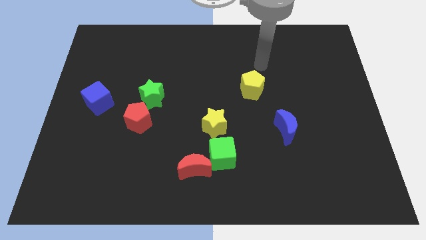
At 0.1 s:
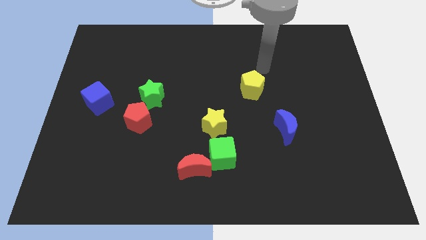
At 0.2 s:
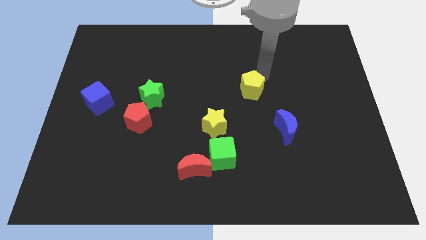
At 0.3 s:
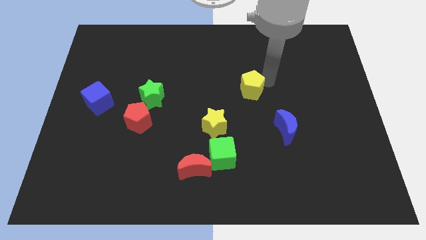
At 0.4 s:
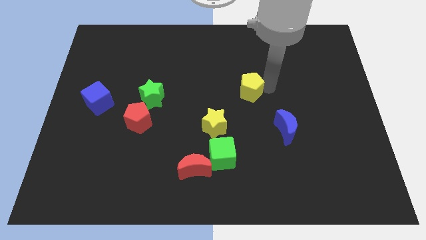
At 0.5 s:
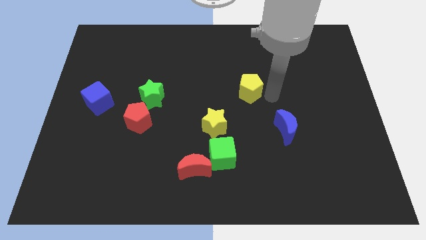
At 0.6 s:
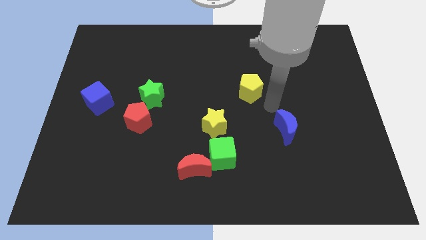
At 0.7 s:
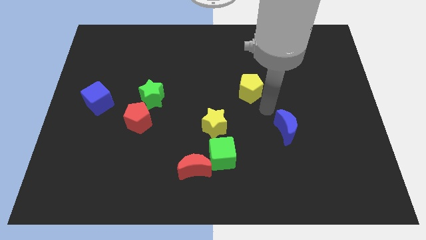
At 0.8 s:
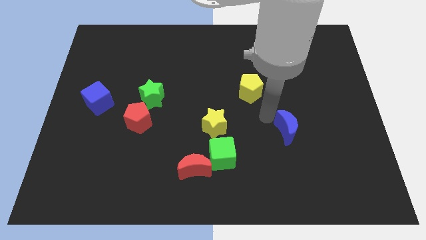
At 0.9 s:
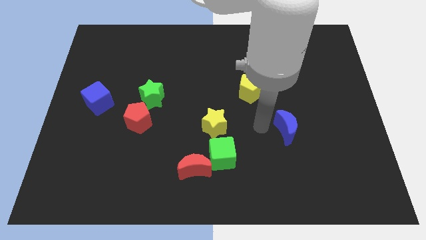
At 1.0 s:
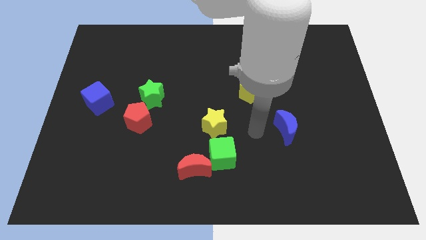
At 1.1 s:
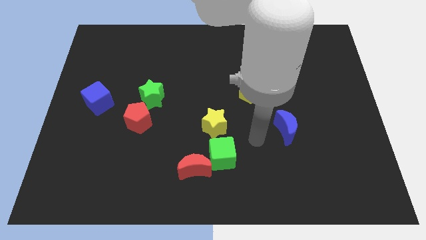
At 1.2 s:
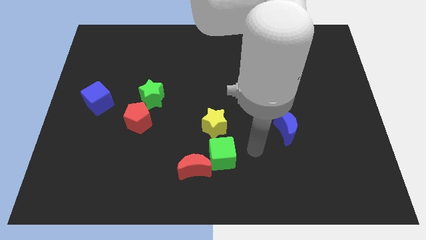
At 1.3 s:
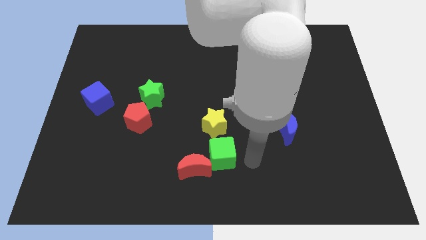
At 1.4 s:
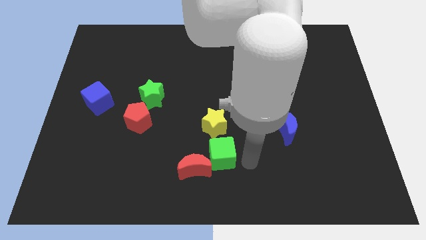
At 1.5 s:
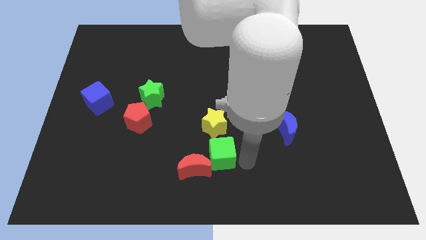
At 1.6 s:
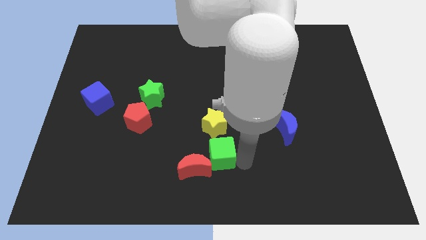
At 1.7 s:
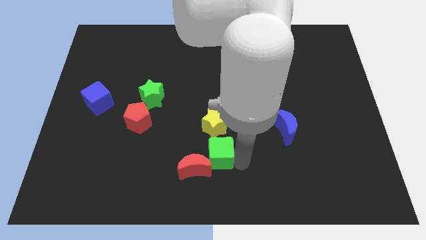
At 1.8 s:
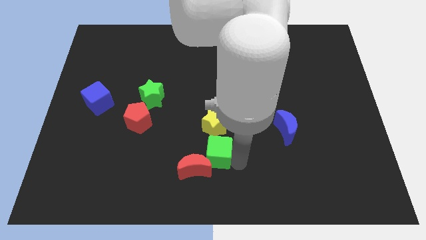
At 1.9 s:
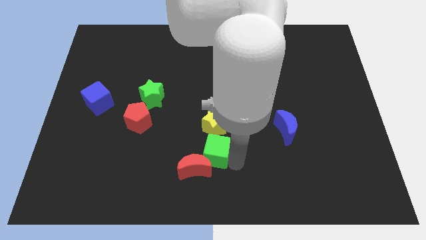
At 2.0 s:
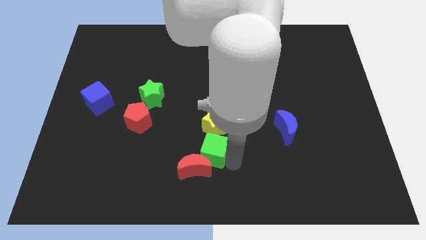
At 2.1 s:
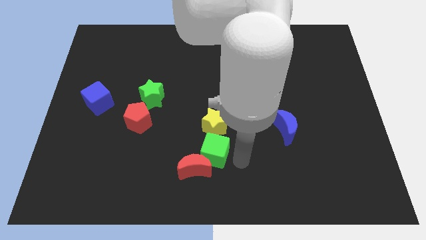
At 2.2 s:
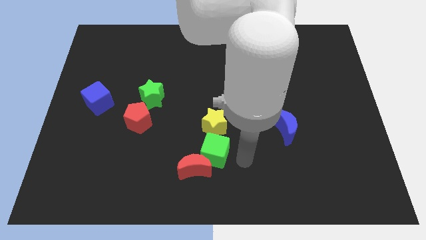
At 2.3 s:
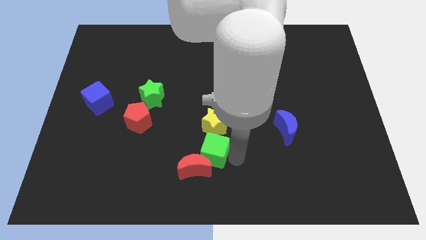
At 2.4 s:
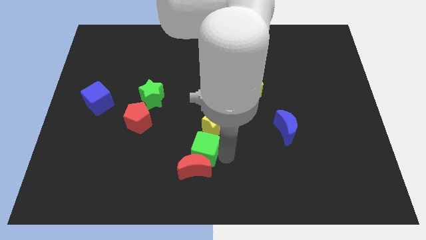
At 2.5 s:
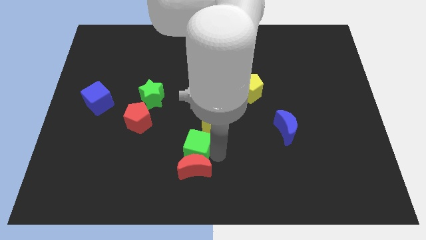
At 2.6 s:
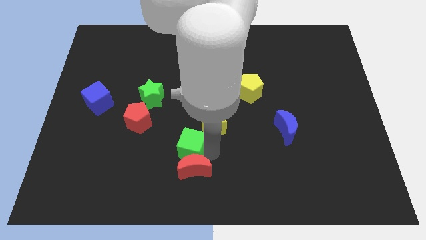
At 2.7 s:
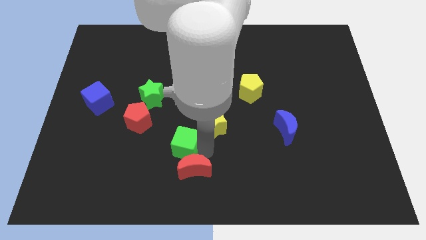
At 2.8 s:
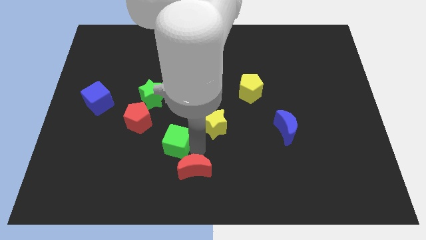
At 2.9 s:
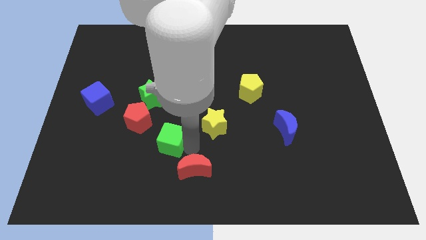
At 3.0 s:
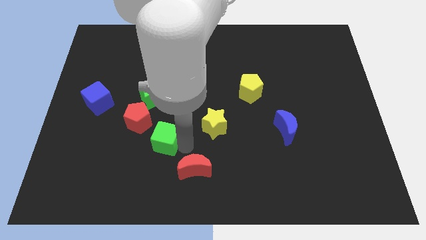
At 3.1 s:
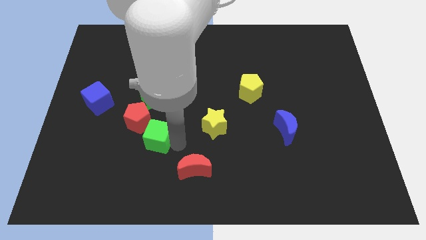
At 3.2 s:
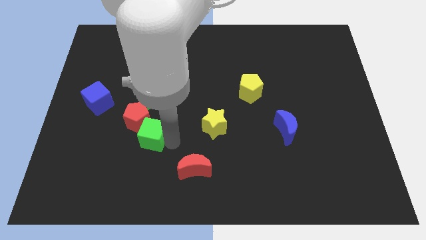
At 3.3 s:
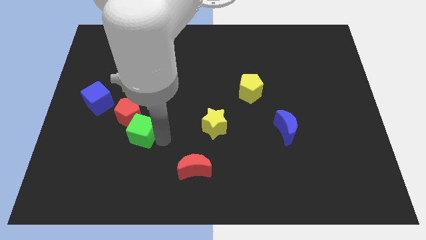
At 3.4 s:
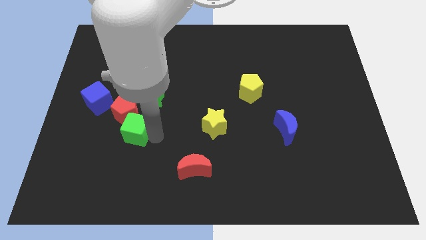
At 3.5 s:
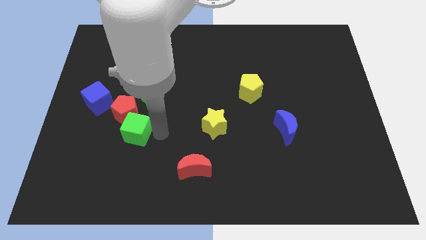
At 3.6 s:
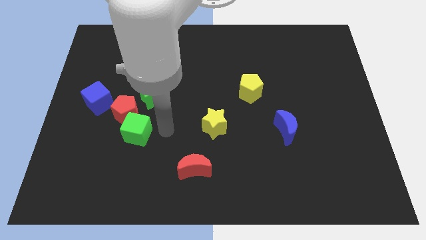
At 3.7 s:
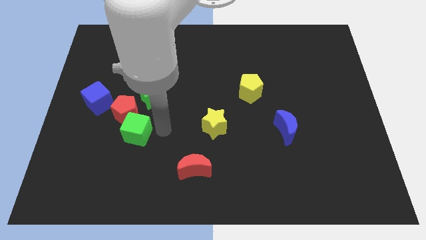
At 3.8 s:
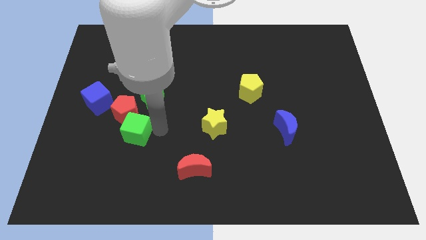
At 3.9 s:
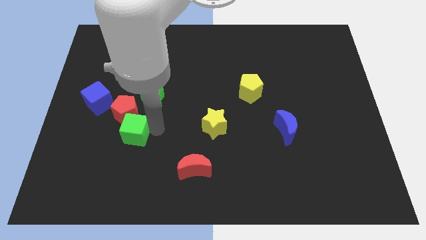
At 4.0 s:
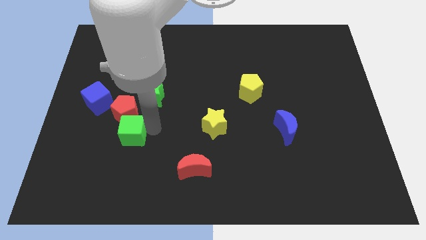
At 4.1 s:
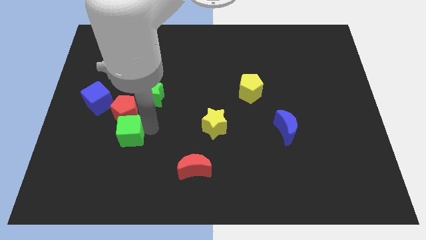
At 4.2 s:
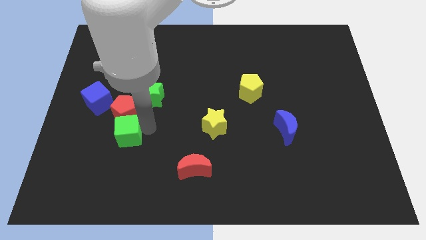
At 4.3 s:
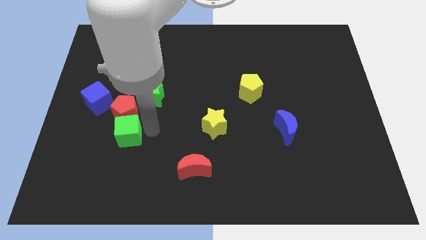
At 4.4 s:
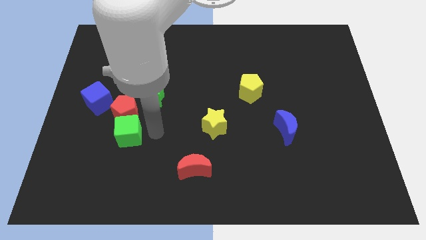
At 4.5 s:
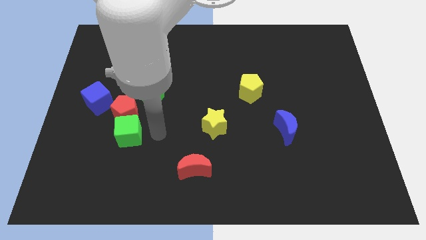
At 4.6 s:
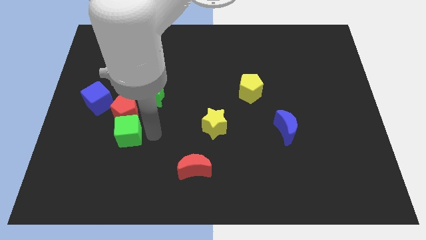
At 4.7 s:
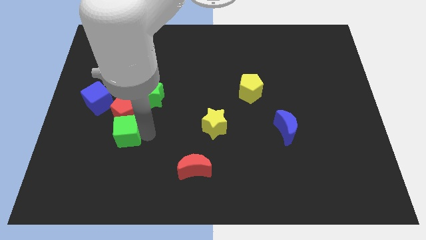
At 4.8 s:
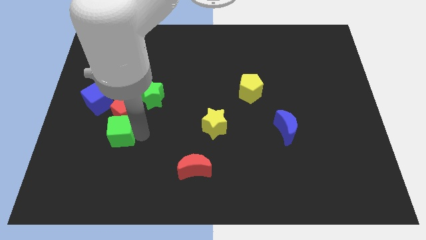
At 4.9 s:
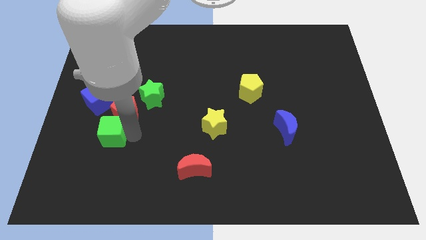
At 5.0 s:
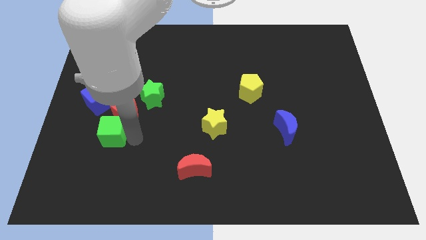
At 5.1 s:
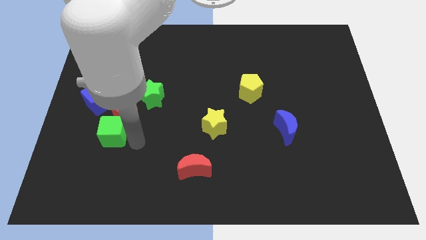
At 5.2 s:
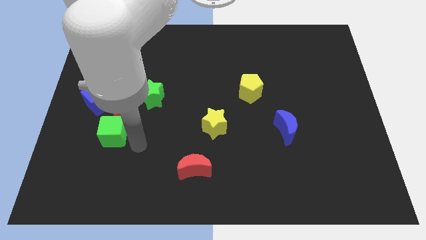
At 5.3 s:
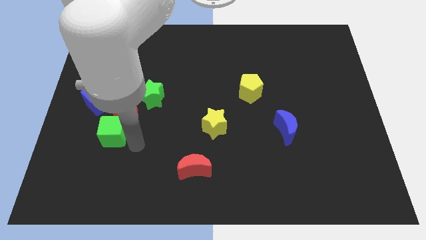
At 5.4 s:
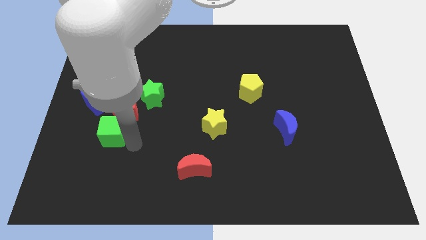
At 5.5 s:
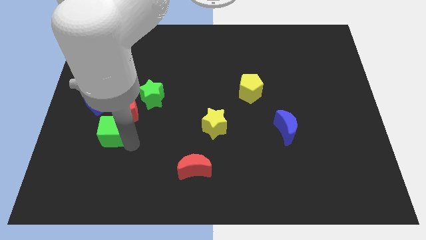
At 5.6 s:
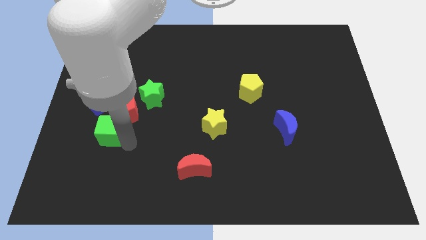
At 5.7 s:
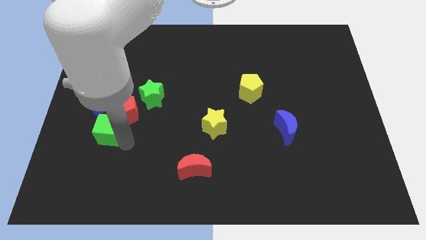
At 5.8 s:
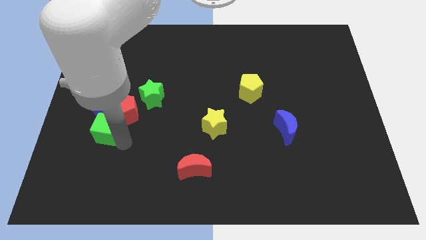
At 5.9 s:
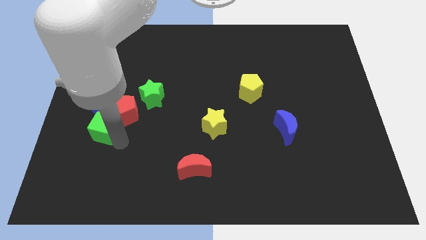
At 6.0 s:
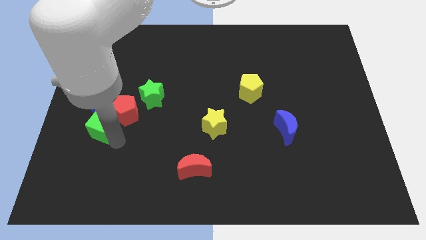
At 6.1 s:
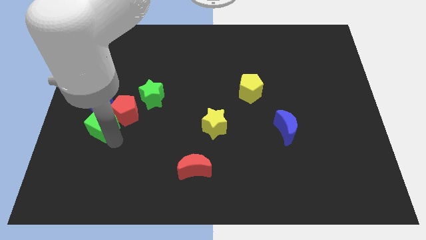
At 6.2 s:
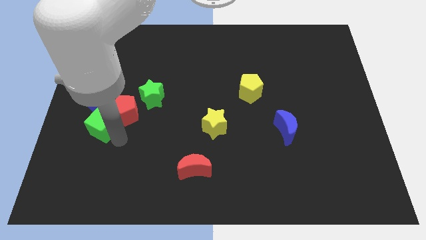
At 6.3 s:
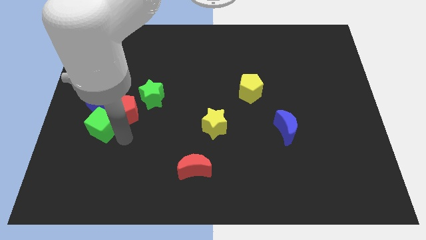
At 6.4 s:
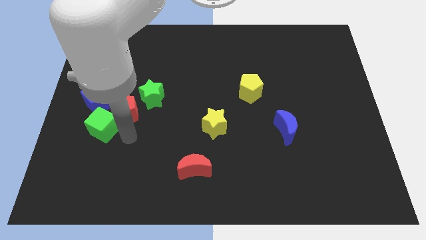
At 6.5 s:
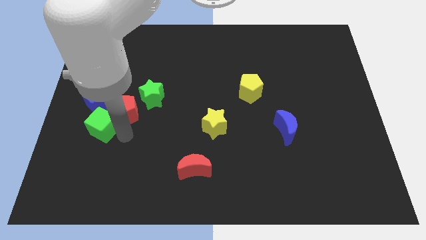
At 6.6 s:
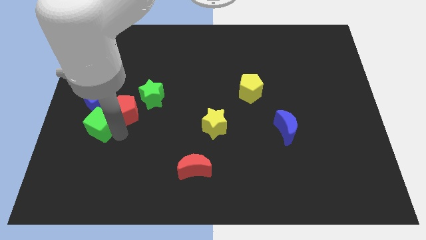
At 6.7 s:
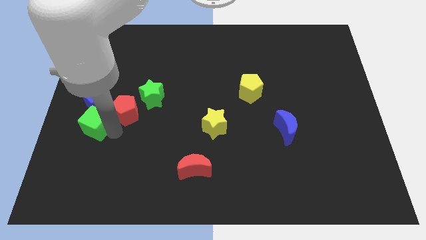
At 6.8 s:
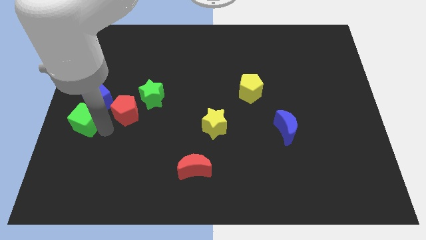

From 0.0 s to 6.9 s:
put the green cube to the center left
